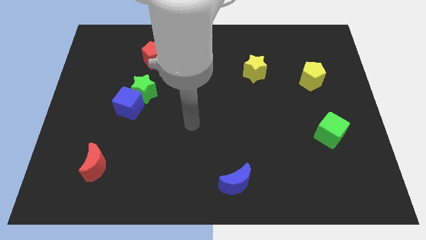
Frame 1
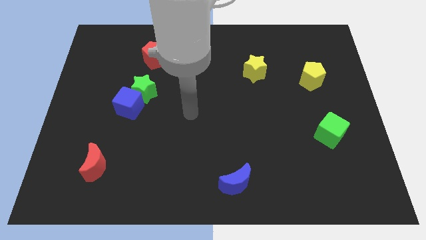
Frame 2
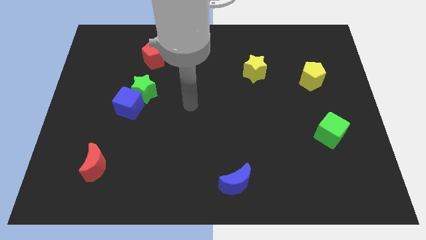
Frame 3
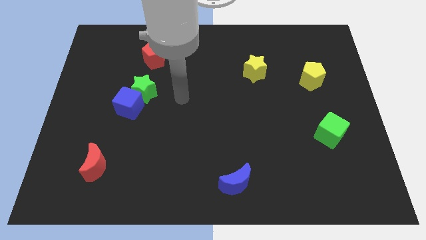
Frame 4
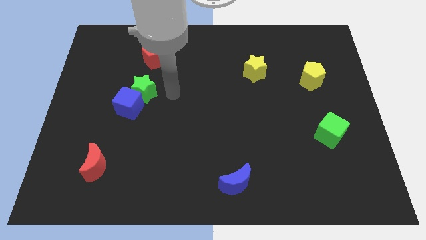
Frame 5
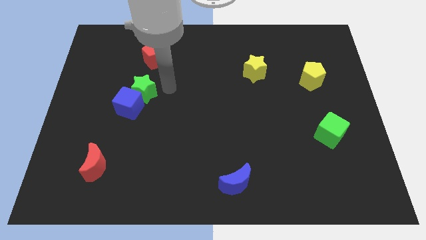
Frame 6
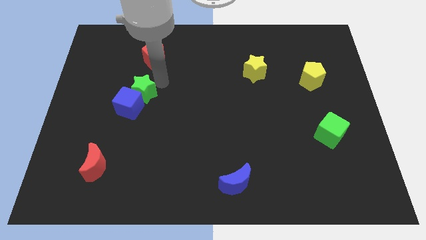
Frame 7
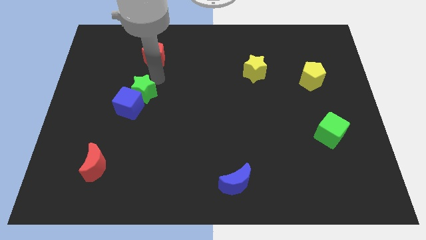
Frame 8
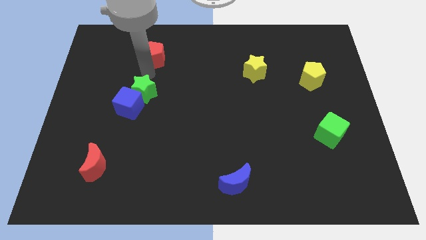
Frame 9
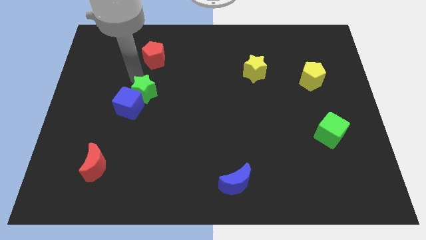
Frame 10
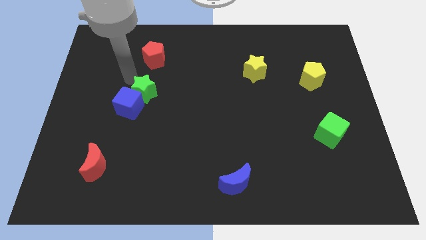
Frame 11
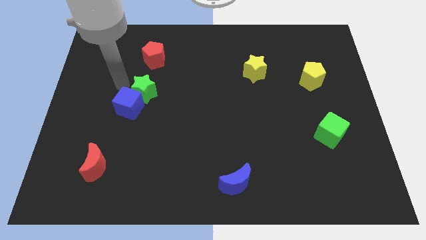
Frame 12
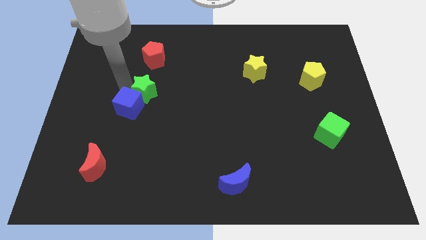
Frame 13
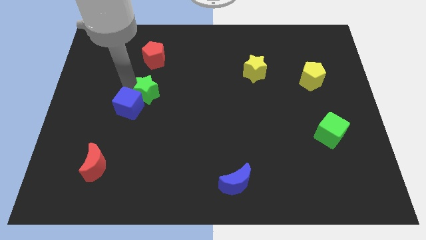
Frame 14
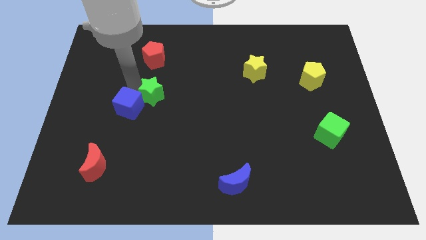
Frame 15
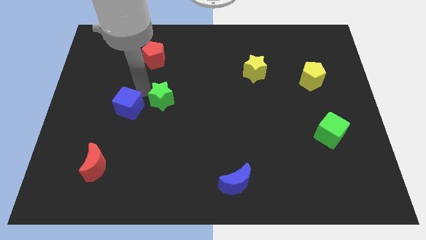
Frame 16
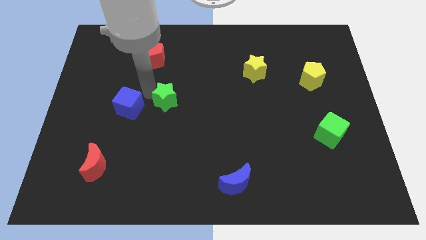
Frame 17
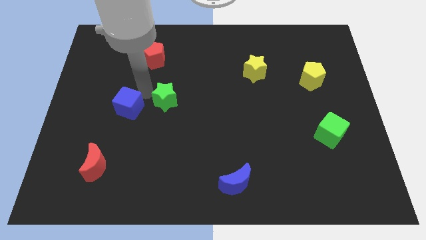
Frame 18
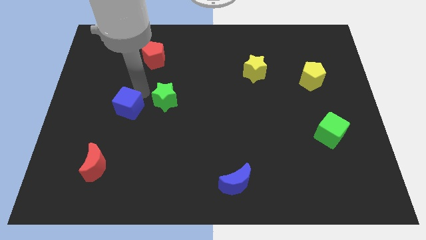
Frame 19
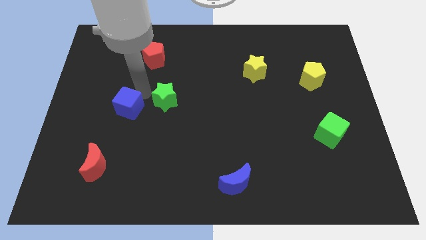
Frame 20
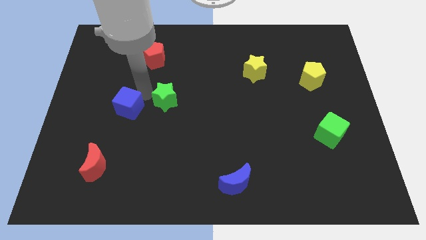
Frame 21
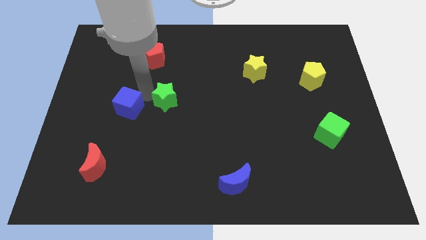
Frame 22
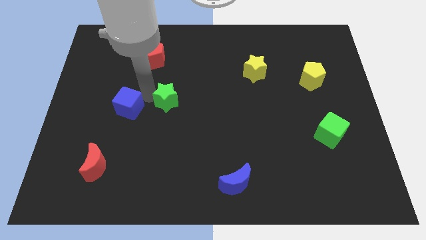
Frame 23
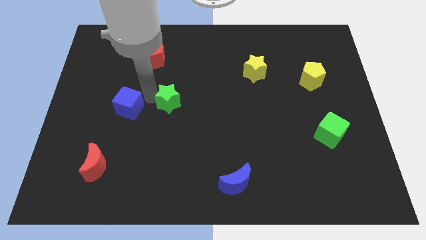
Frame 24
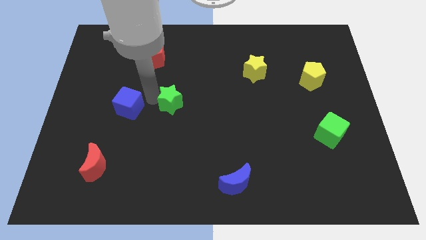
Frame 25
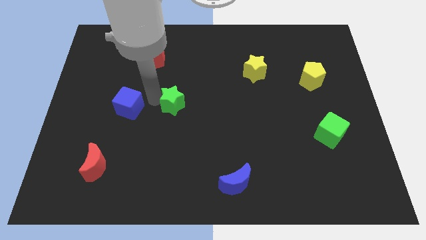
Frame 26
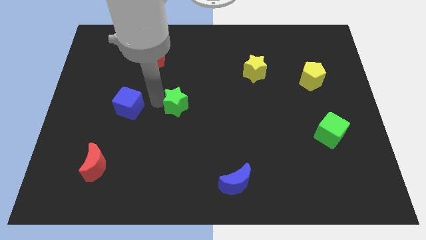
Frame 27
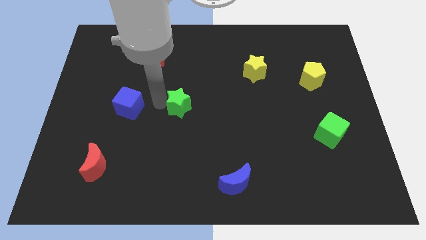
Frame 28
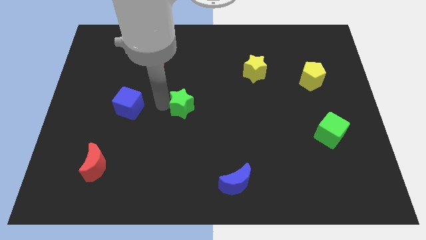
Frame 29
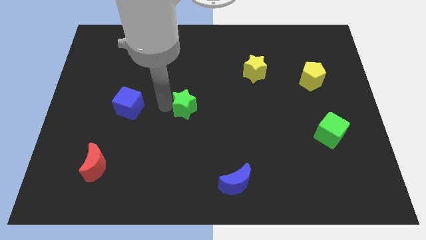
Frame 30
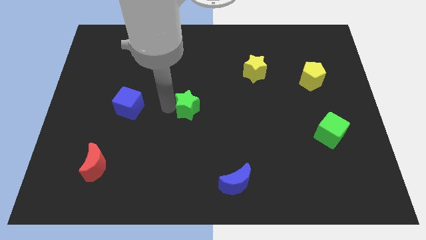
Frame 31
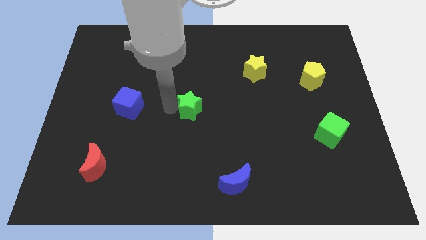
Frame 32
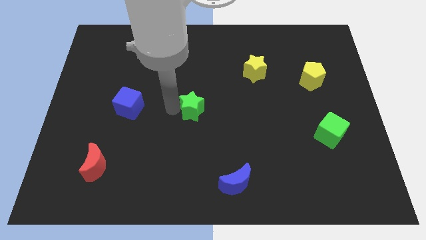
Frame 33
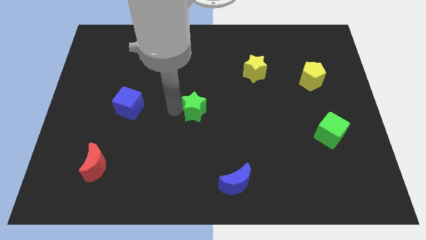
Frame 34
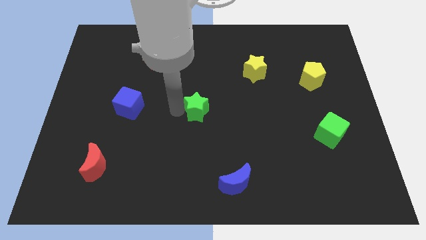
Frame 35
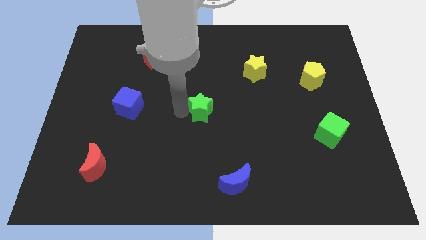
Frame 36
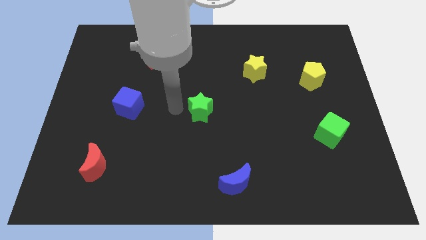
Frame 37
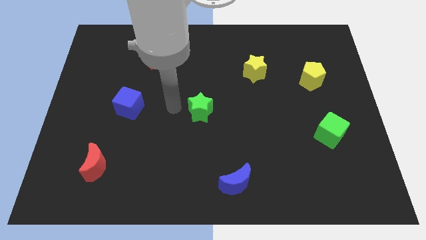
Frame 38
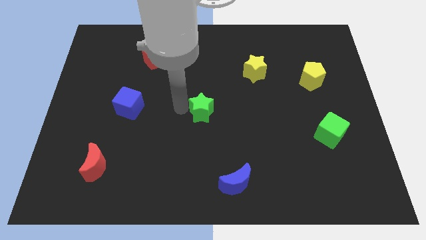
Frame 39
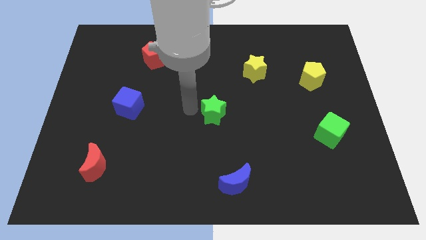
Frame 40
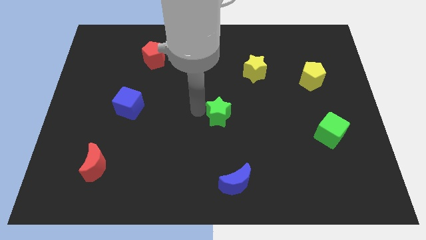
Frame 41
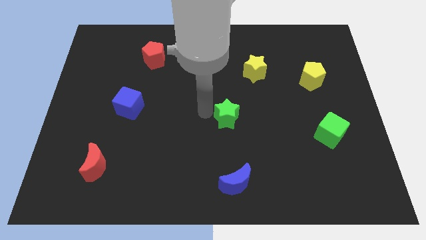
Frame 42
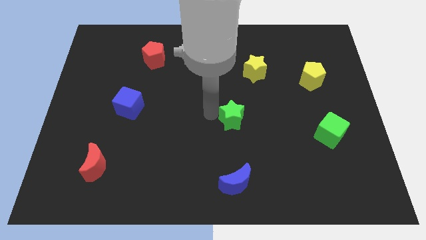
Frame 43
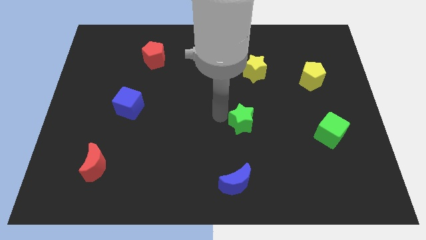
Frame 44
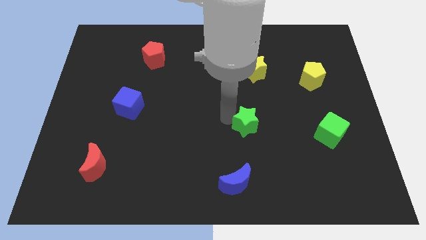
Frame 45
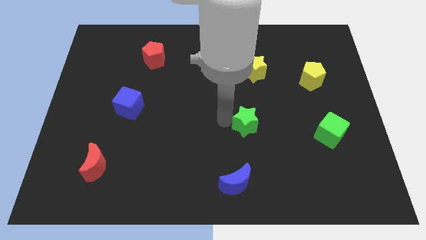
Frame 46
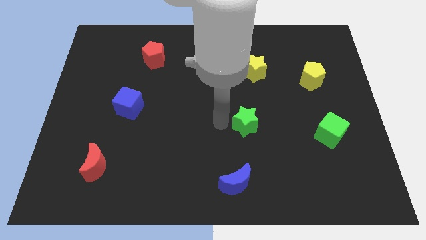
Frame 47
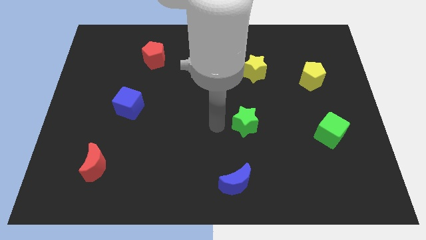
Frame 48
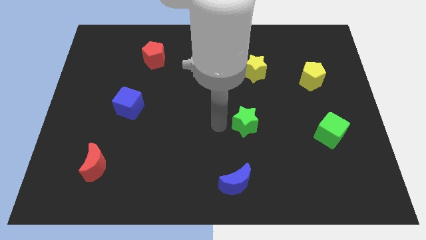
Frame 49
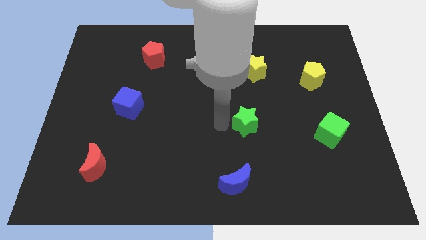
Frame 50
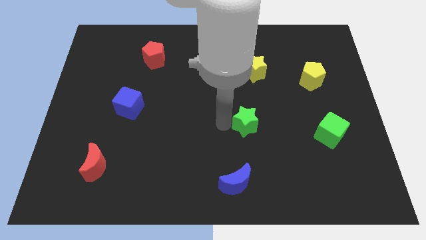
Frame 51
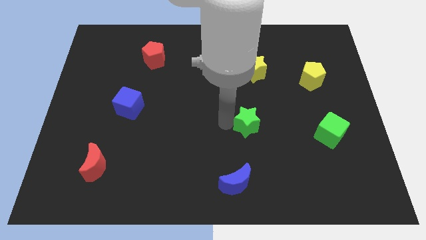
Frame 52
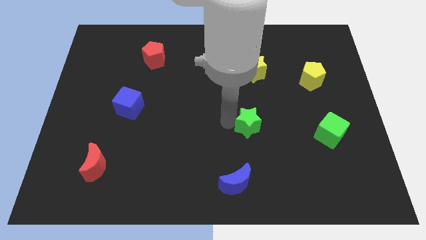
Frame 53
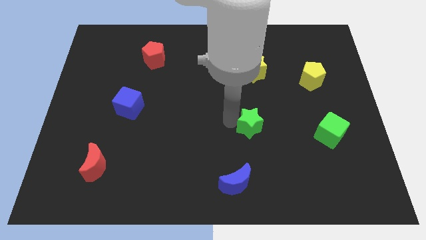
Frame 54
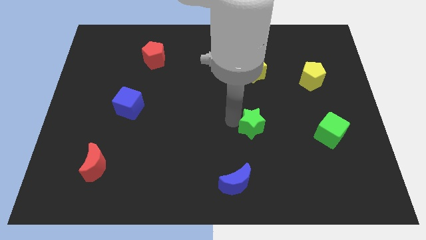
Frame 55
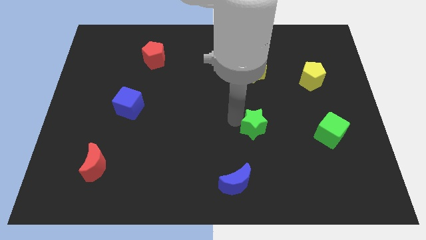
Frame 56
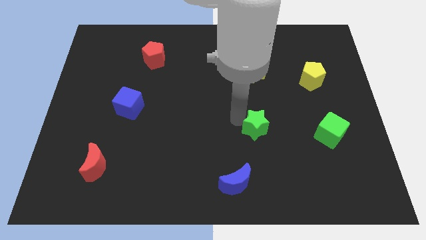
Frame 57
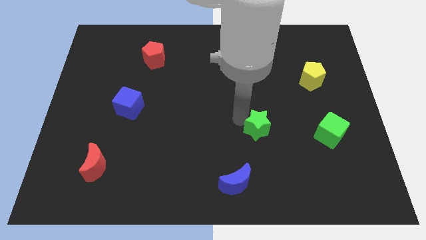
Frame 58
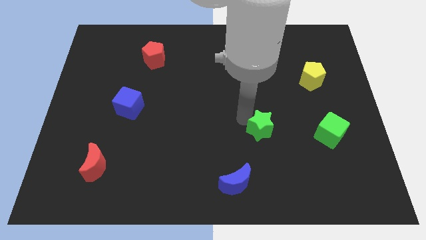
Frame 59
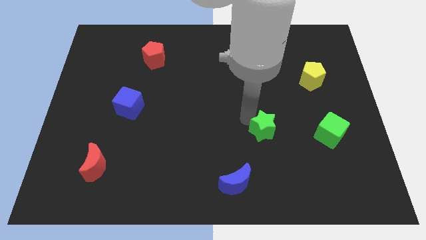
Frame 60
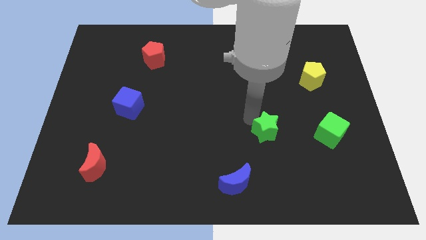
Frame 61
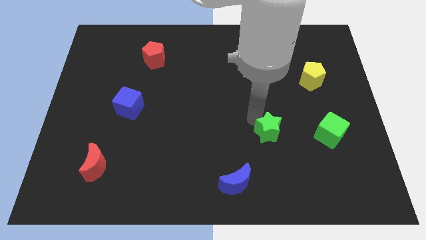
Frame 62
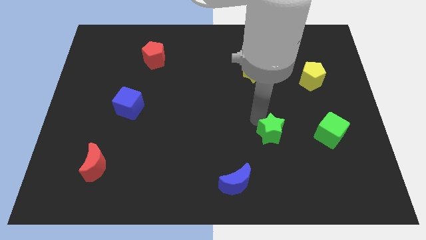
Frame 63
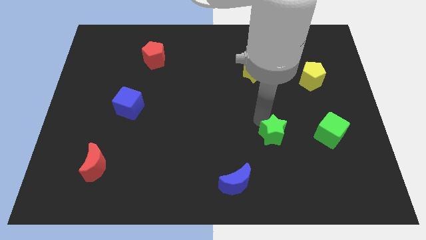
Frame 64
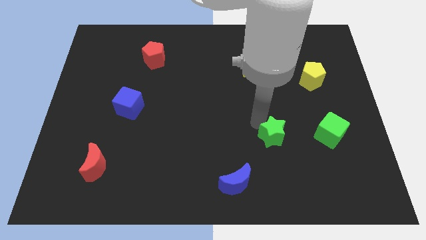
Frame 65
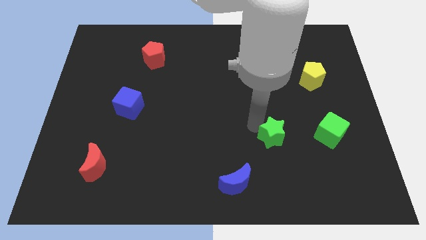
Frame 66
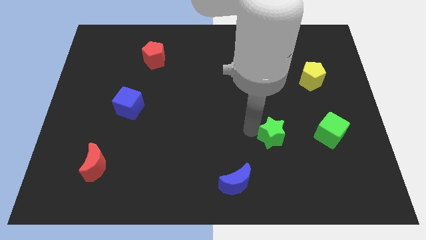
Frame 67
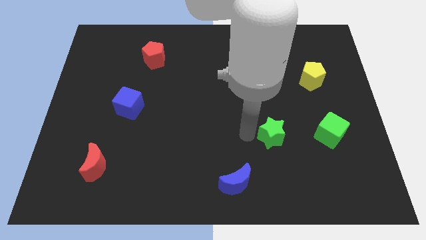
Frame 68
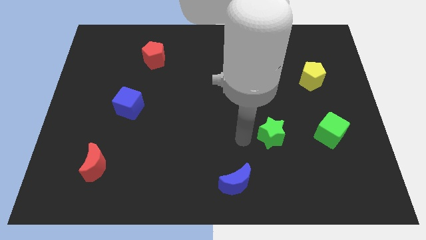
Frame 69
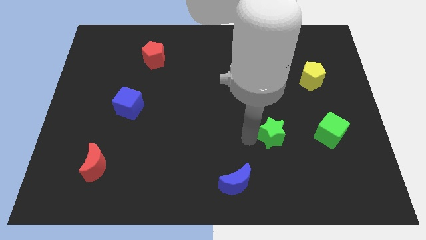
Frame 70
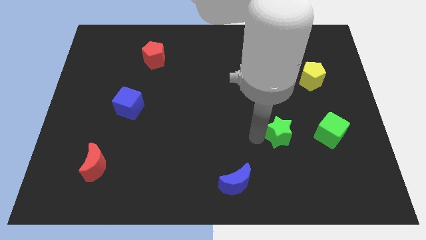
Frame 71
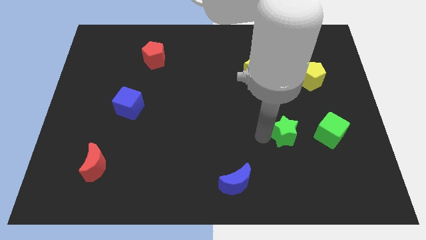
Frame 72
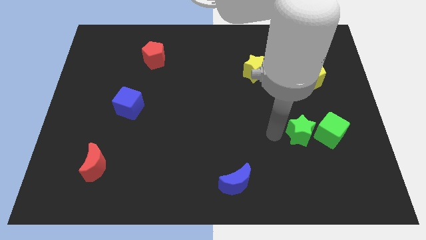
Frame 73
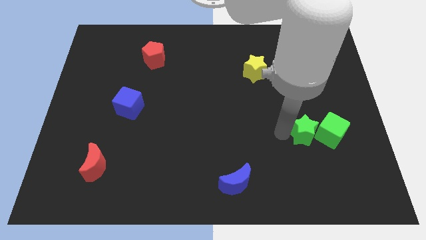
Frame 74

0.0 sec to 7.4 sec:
push the green star next to the green cube
